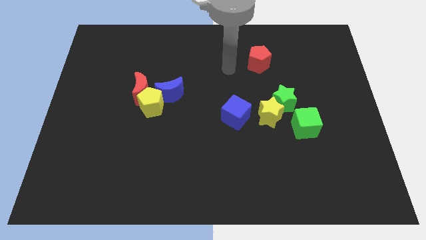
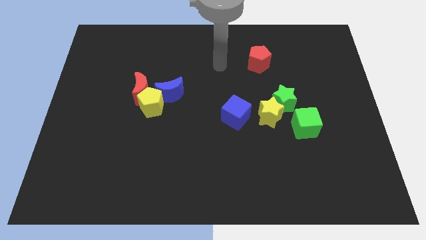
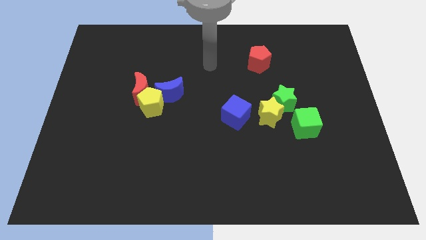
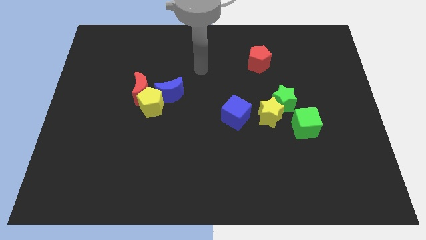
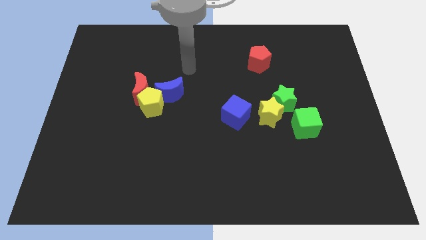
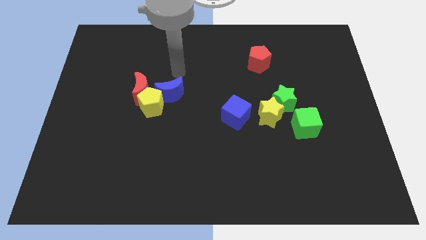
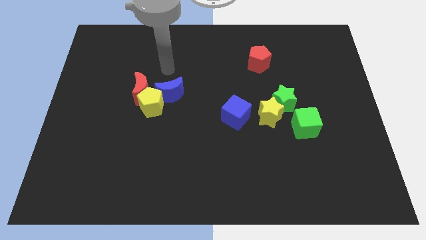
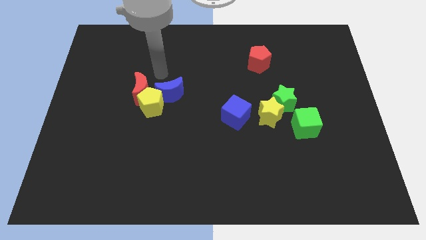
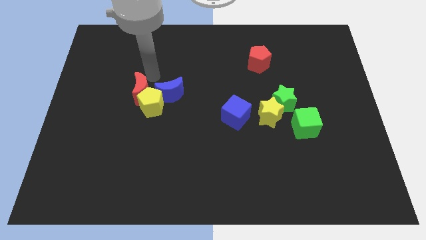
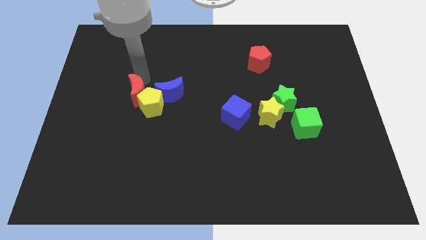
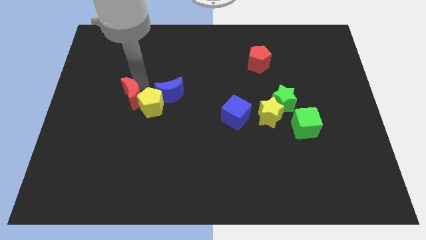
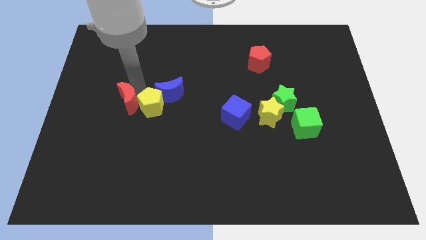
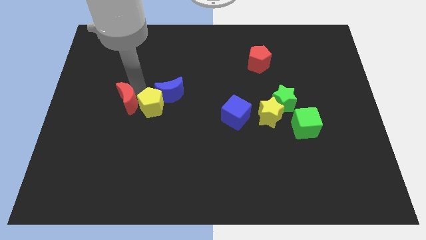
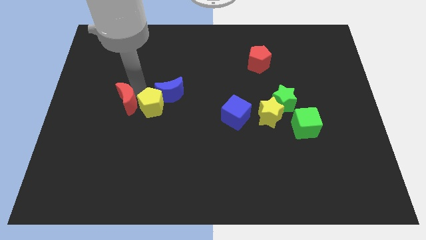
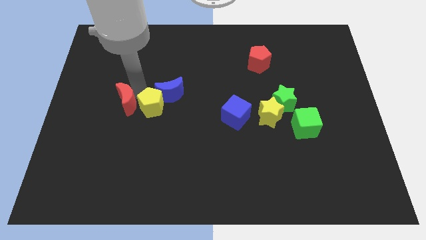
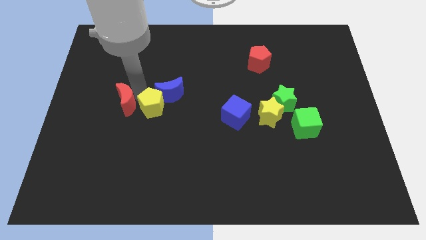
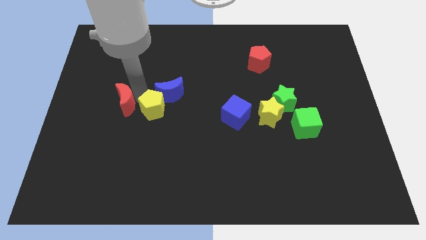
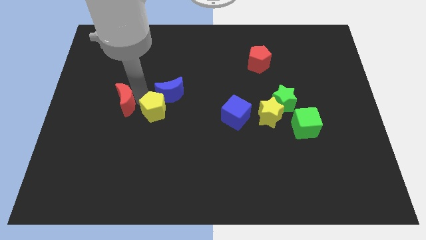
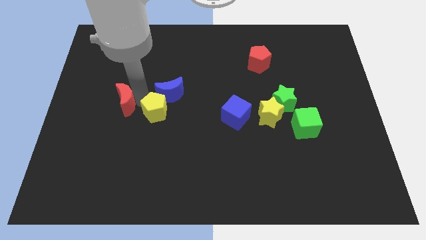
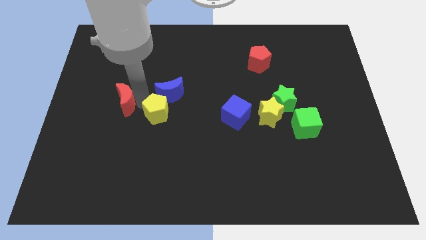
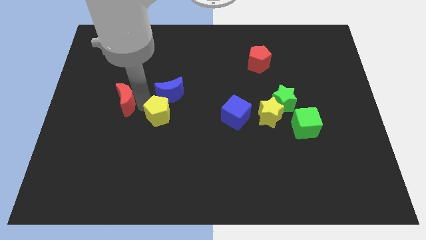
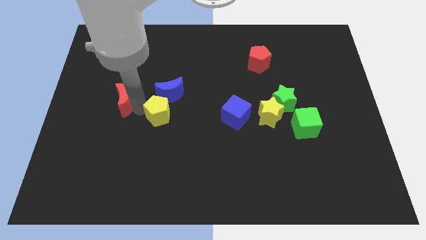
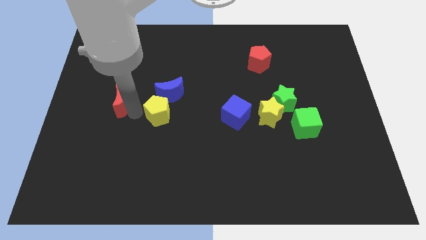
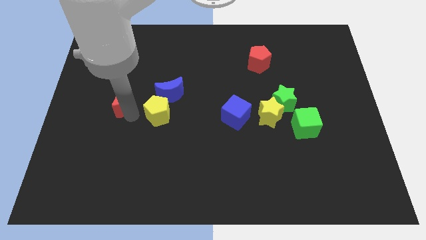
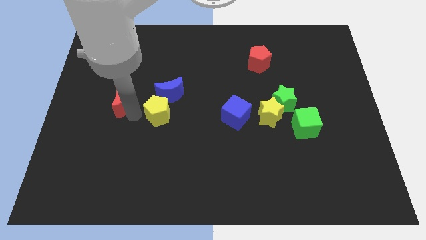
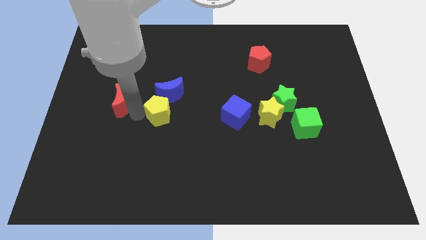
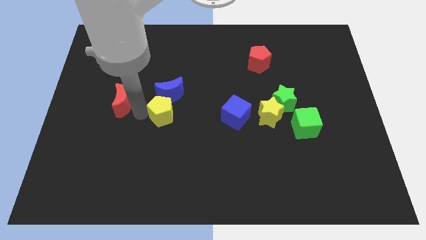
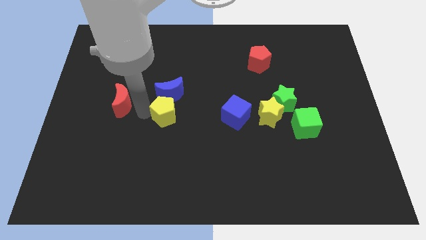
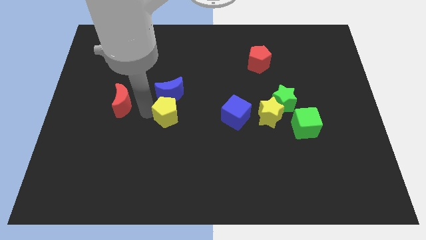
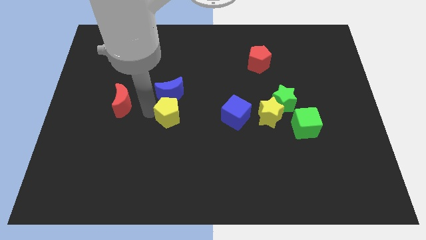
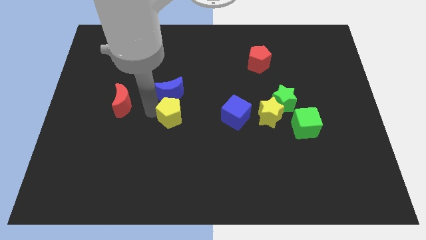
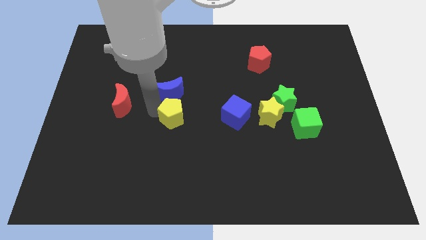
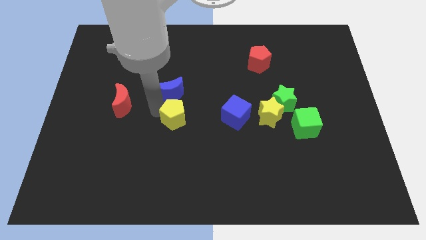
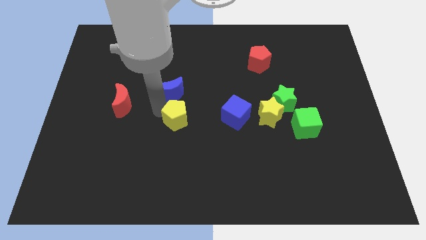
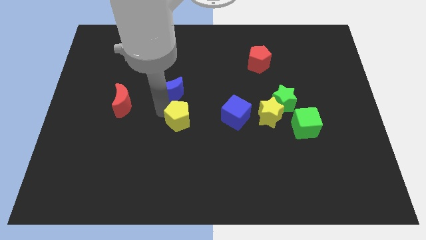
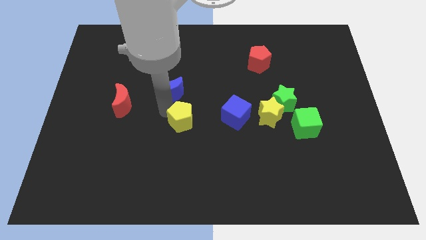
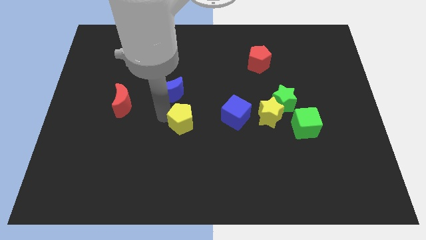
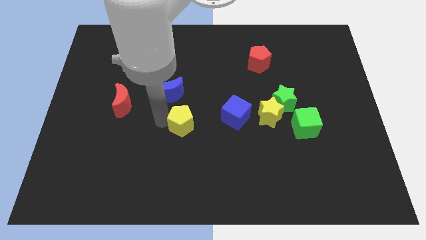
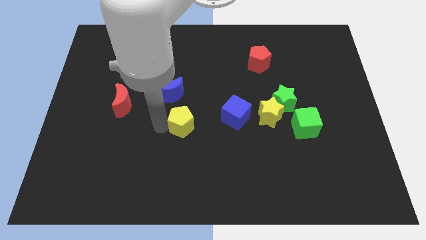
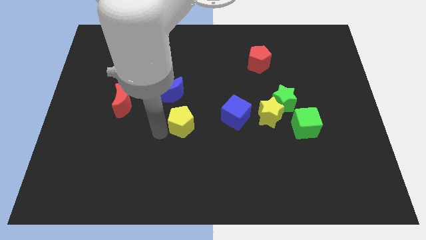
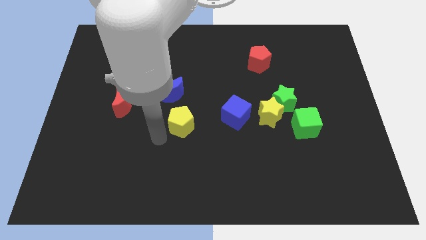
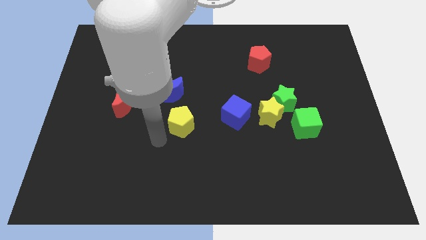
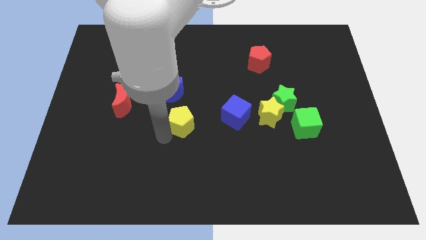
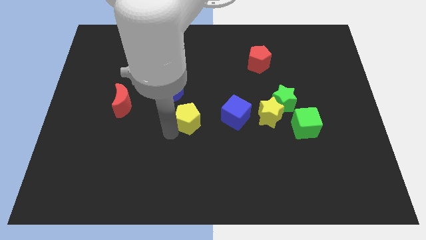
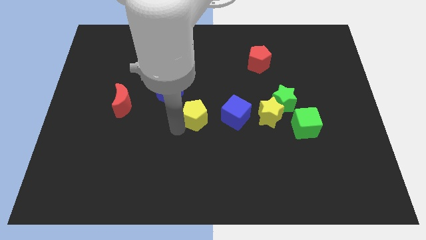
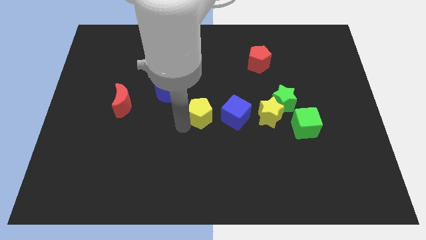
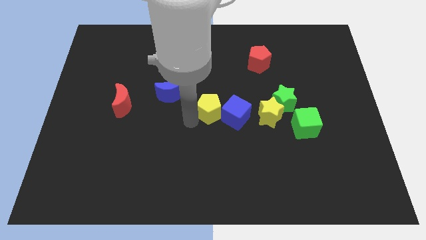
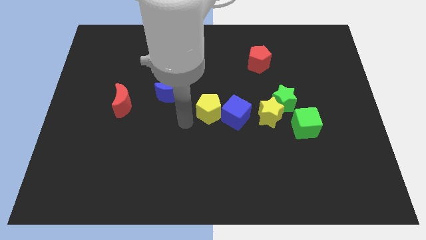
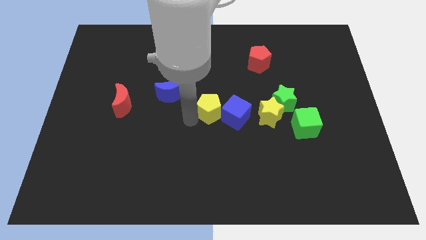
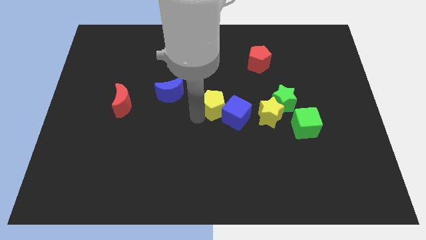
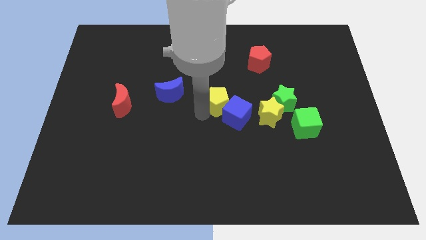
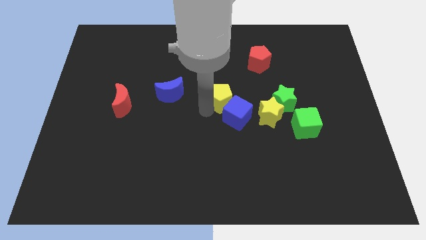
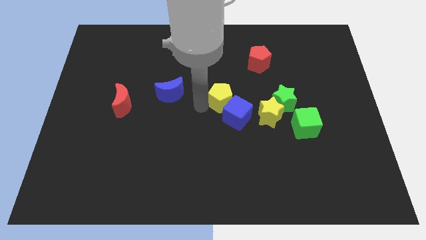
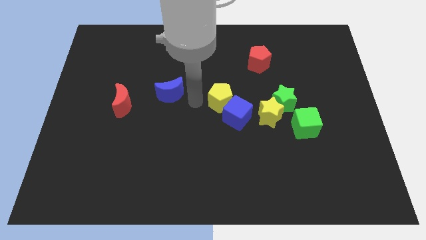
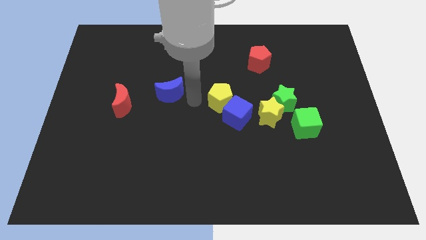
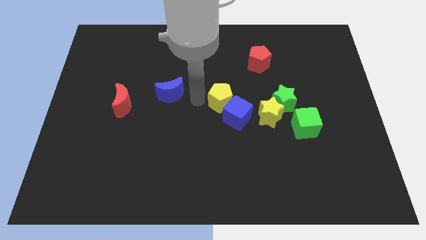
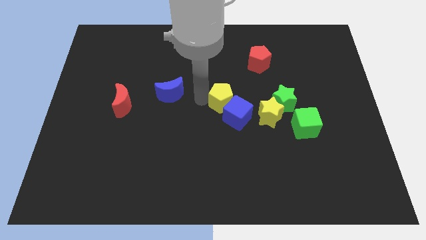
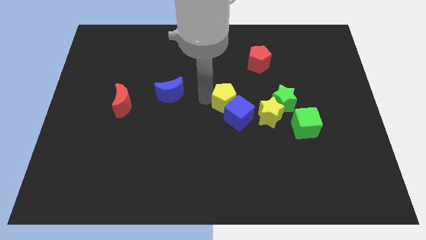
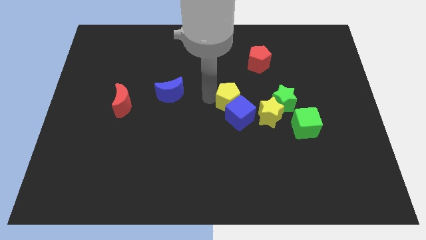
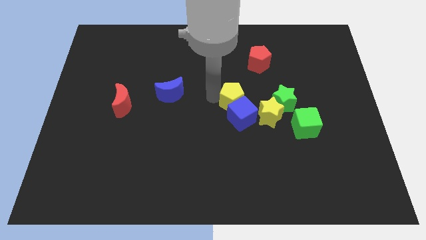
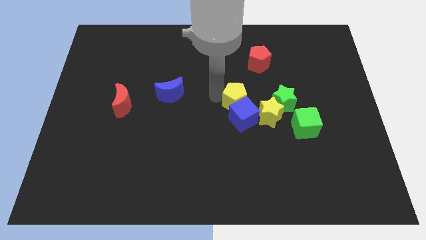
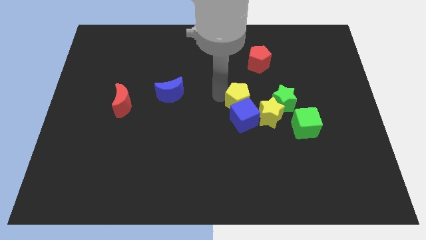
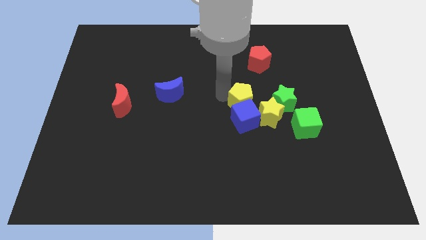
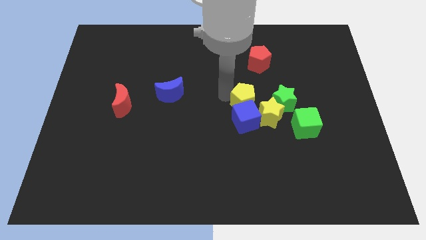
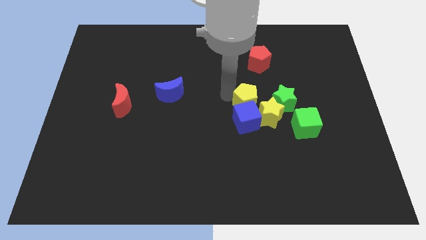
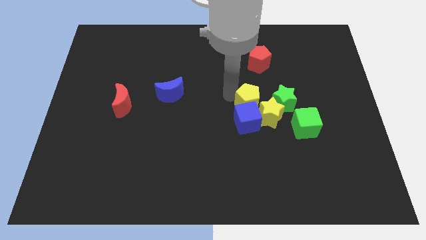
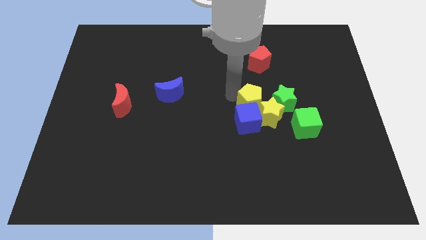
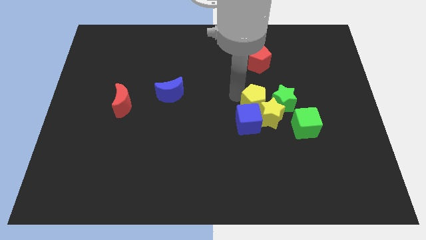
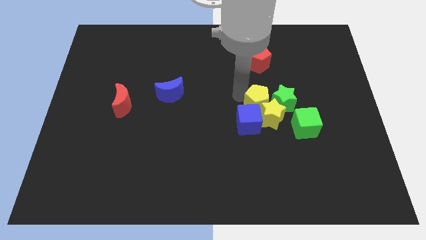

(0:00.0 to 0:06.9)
put the yellow pentagon close to the green star

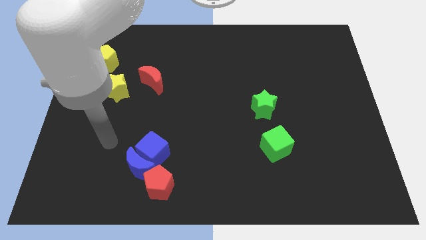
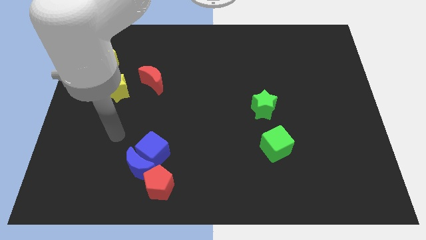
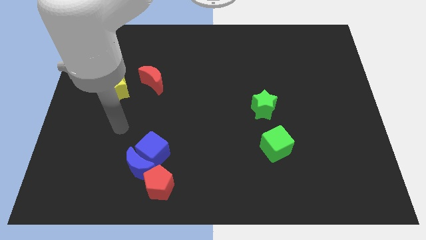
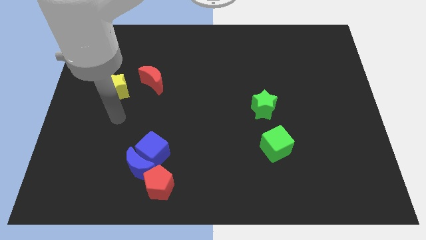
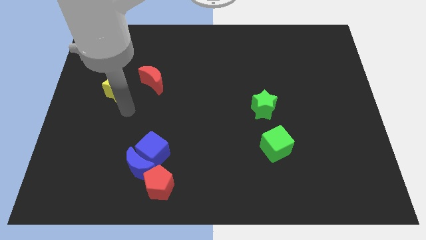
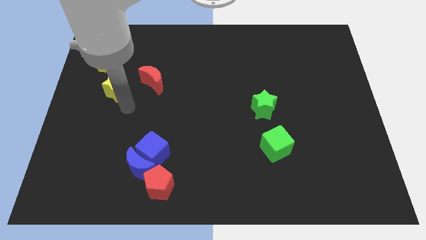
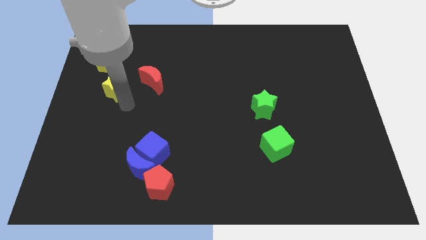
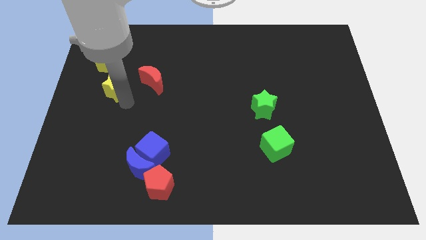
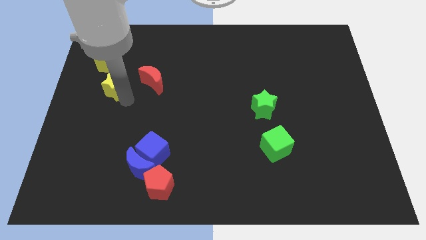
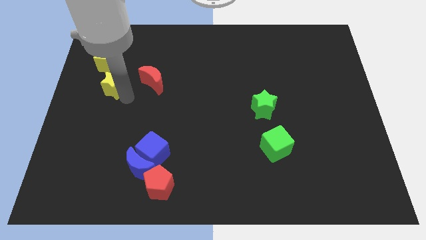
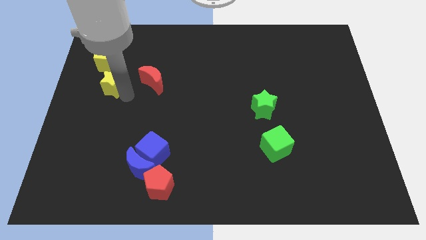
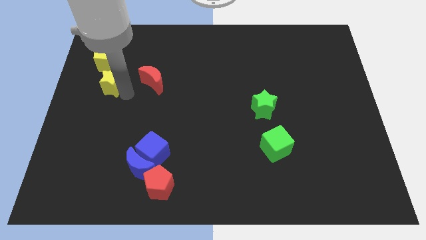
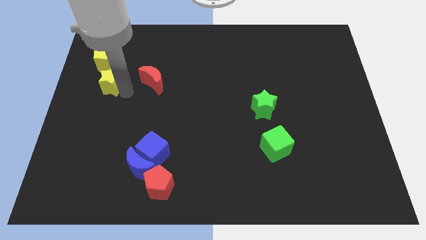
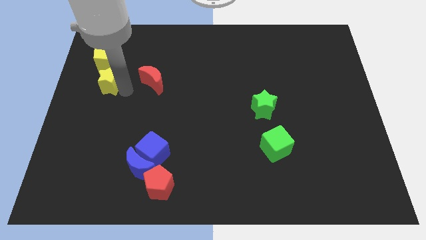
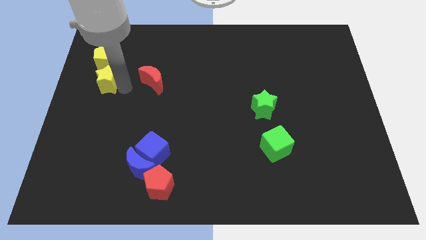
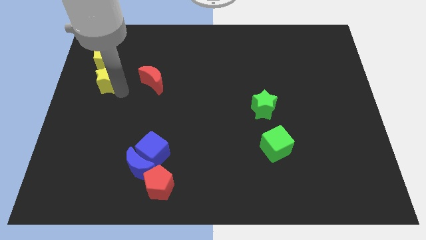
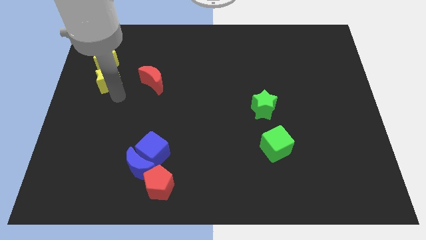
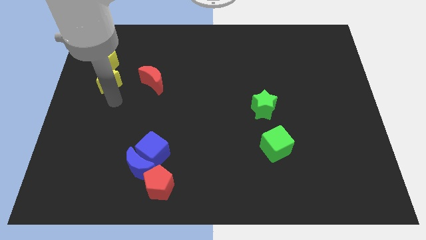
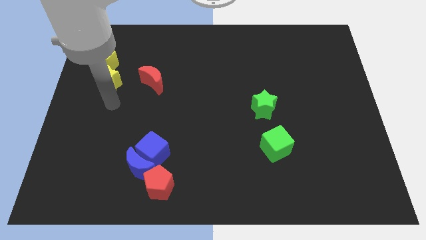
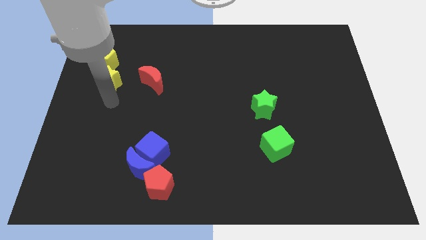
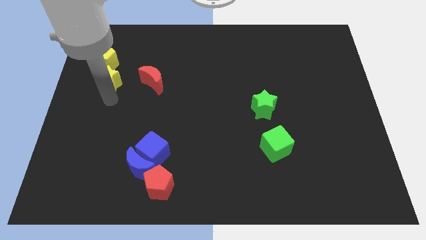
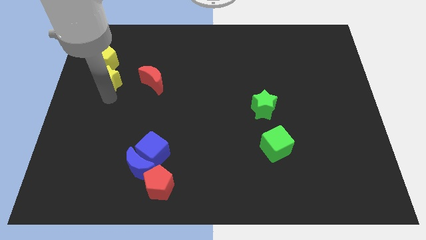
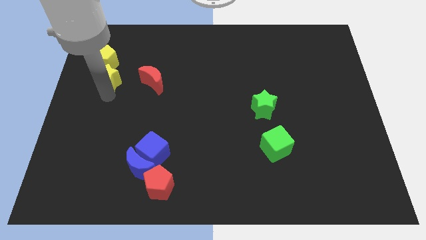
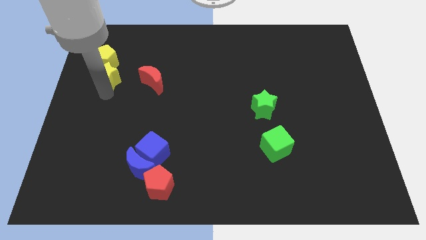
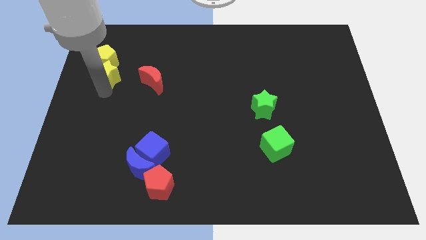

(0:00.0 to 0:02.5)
slide the yellow star next to the yellow pentagon
